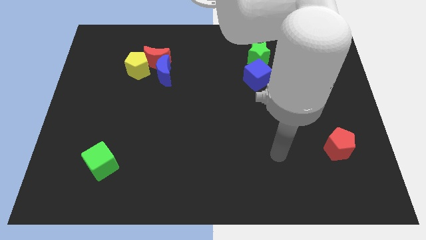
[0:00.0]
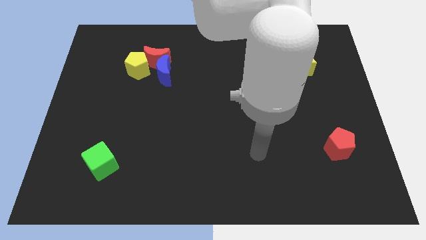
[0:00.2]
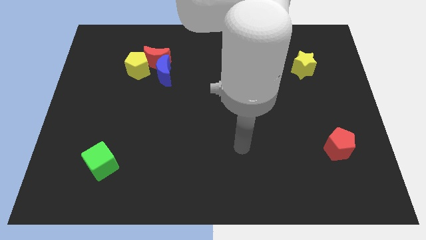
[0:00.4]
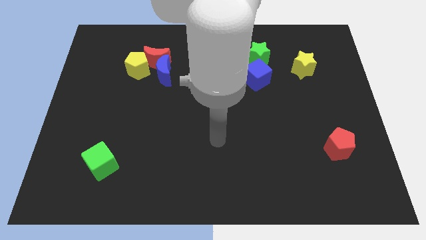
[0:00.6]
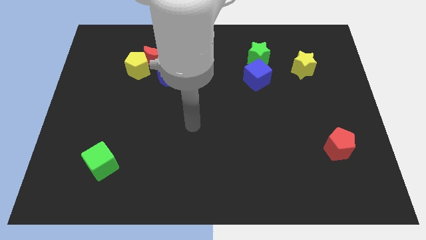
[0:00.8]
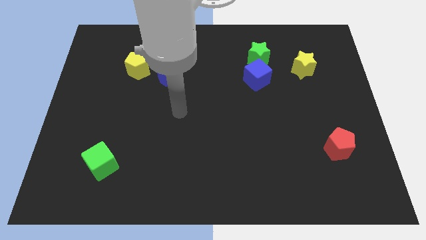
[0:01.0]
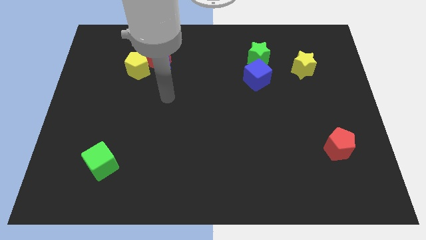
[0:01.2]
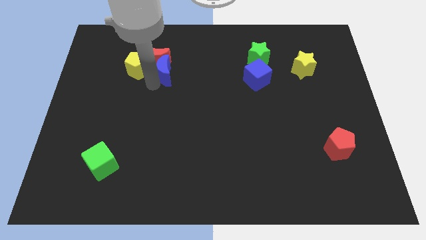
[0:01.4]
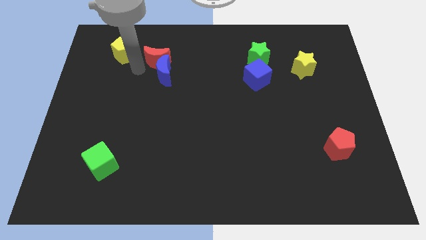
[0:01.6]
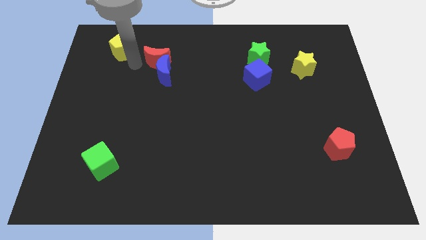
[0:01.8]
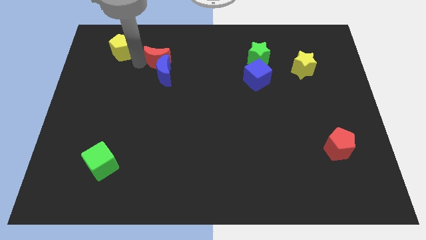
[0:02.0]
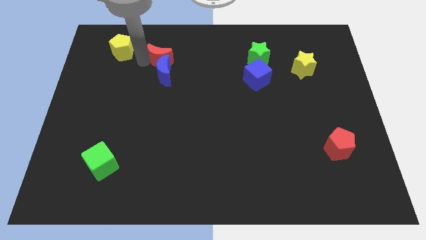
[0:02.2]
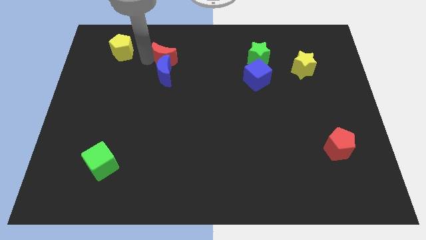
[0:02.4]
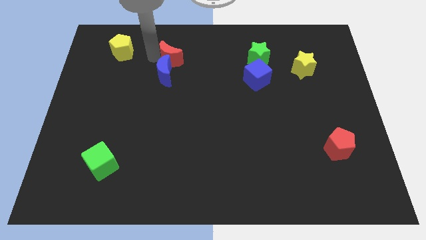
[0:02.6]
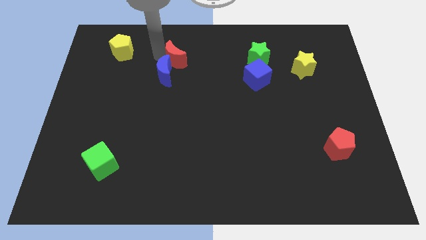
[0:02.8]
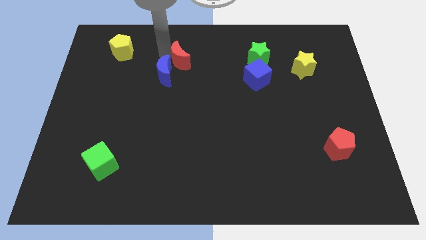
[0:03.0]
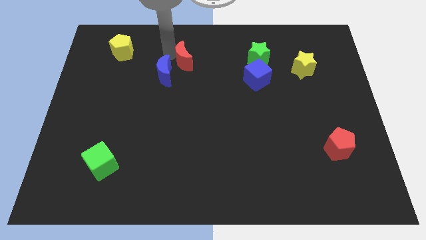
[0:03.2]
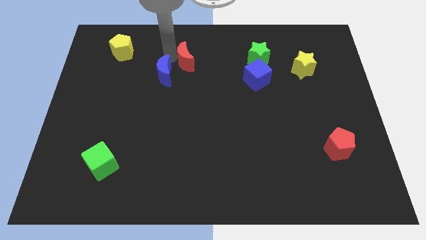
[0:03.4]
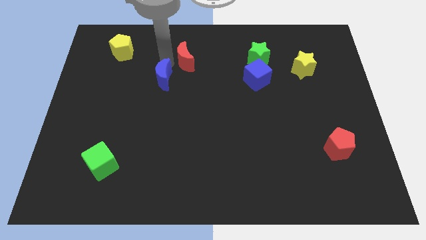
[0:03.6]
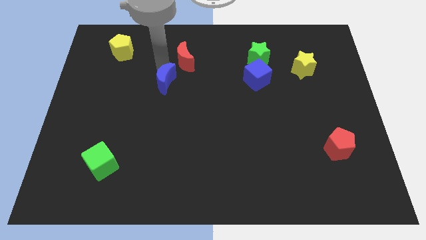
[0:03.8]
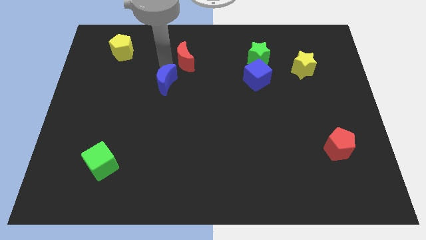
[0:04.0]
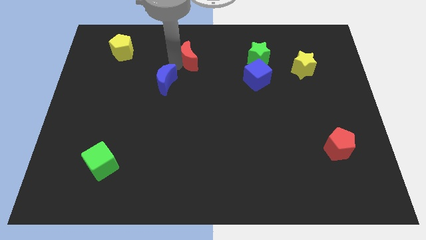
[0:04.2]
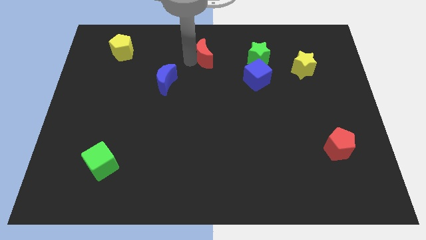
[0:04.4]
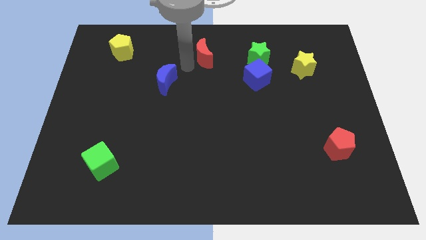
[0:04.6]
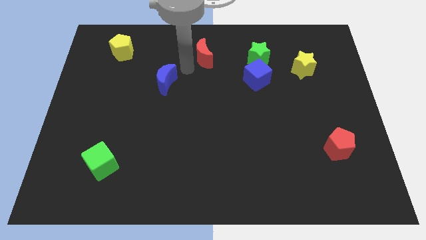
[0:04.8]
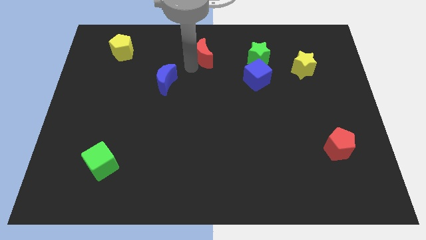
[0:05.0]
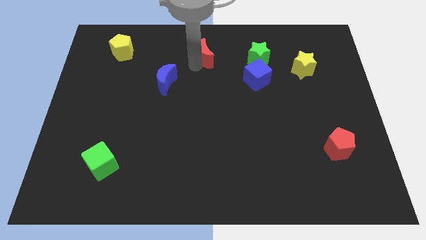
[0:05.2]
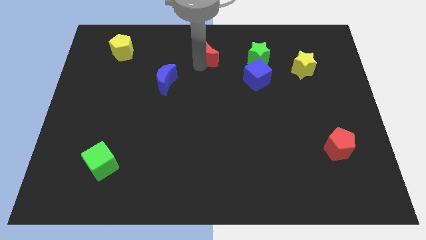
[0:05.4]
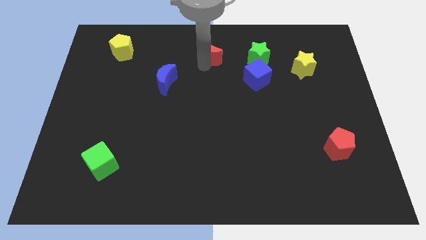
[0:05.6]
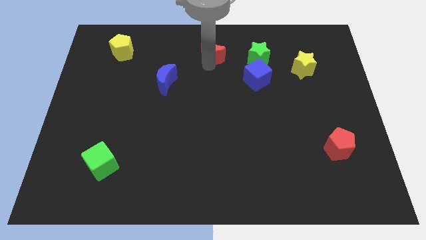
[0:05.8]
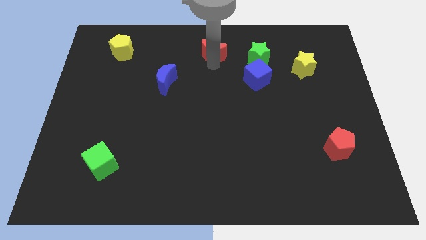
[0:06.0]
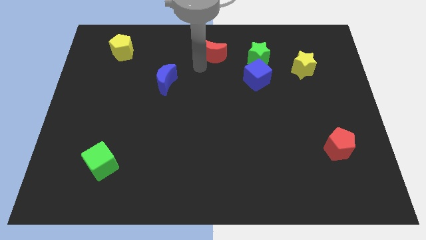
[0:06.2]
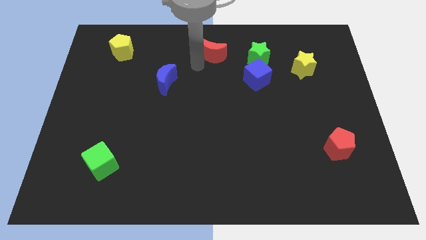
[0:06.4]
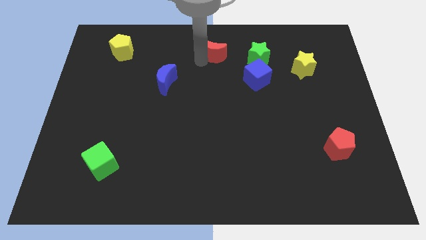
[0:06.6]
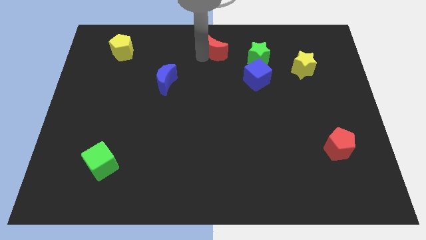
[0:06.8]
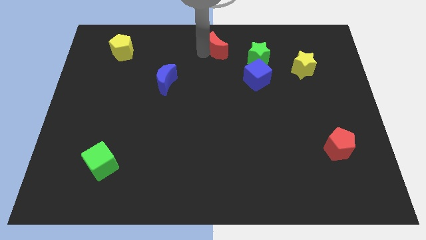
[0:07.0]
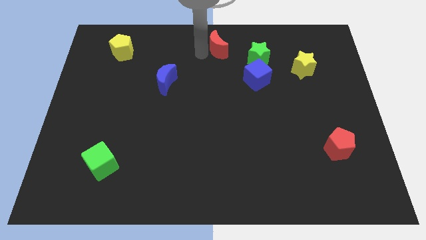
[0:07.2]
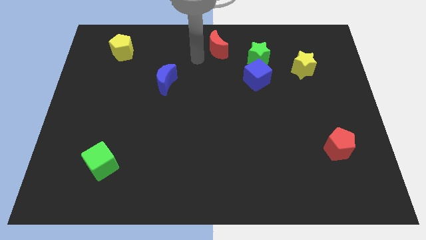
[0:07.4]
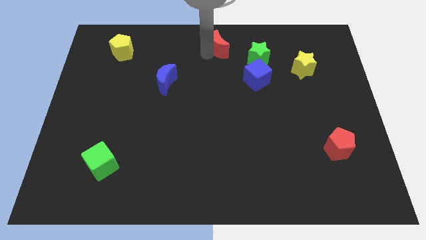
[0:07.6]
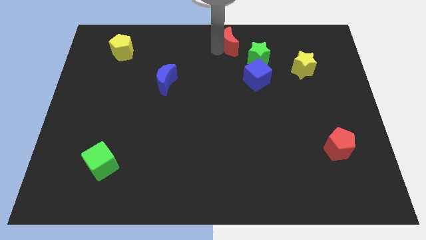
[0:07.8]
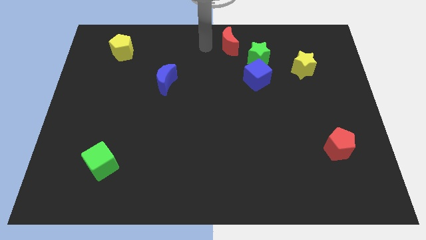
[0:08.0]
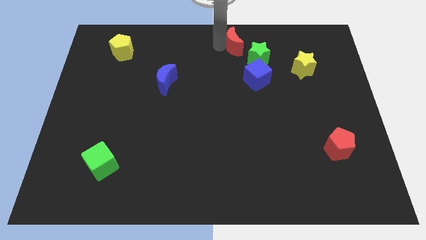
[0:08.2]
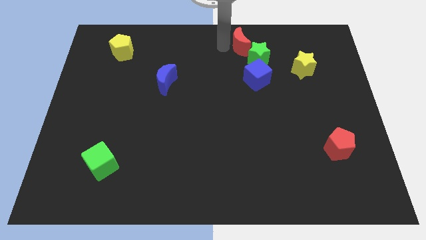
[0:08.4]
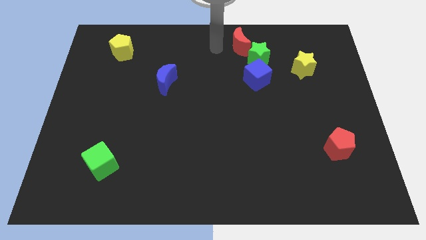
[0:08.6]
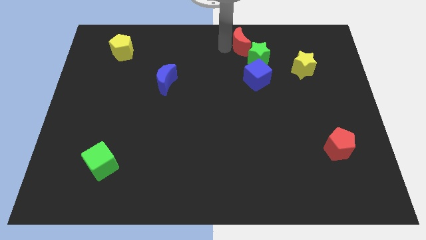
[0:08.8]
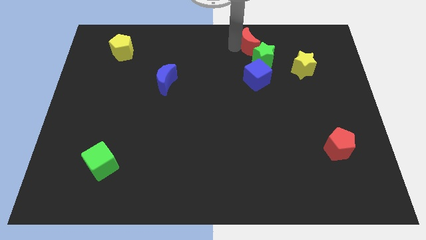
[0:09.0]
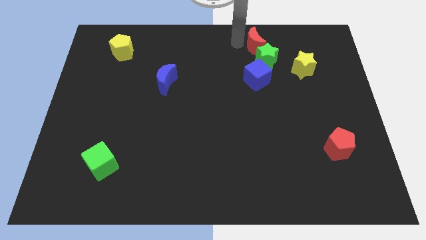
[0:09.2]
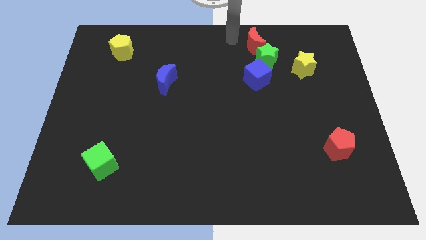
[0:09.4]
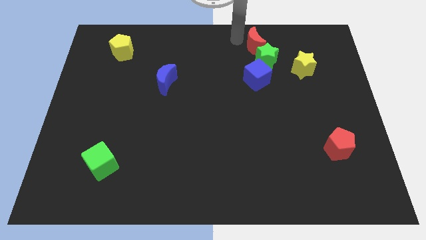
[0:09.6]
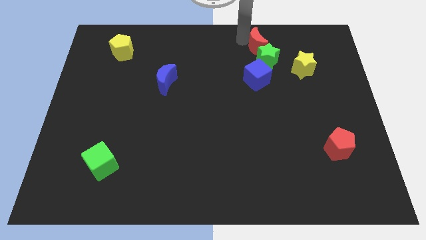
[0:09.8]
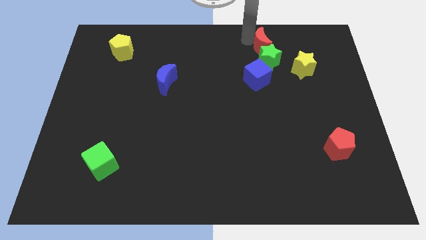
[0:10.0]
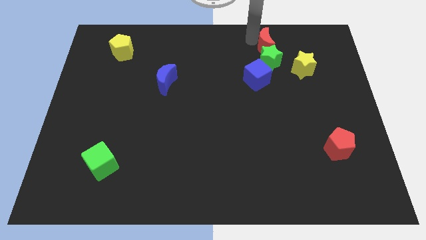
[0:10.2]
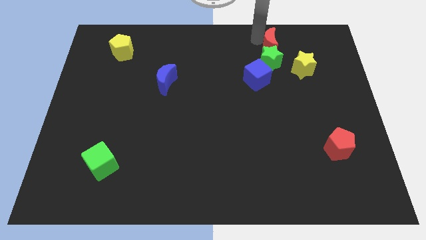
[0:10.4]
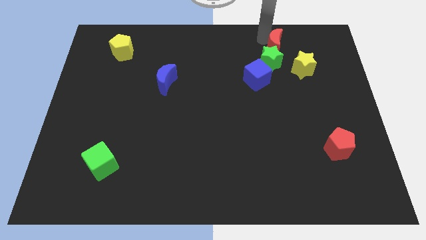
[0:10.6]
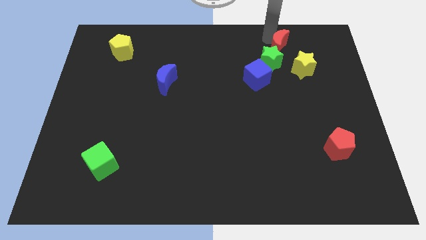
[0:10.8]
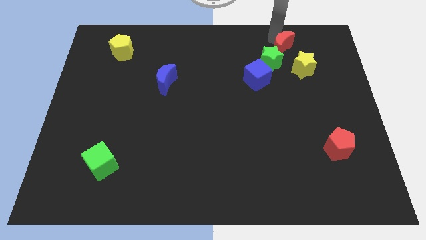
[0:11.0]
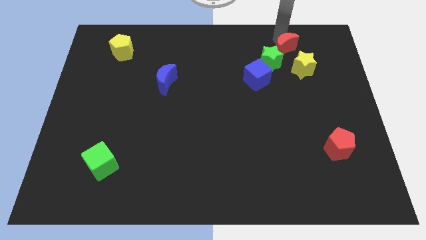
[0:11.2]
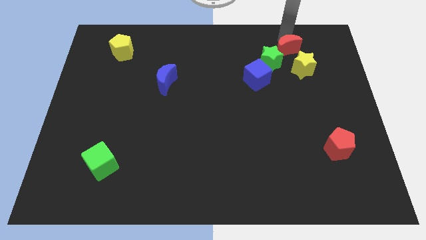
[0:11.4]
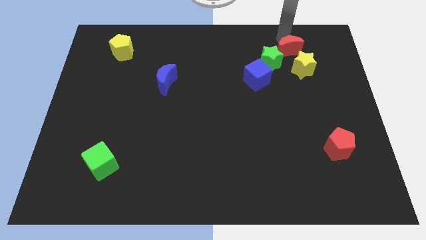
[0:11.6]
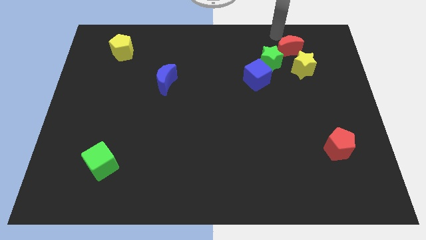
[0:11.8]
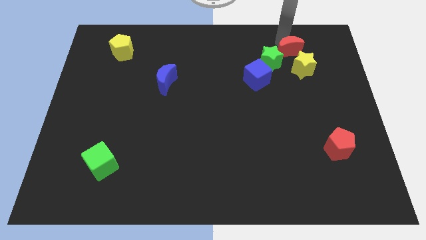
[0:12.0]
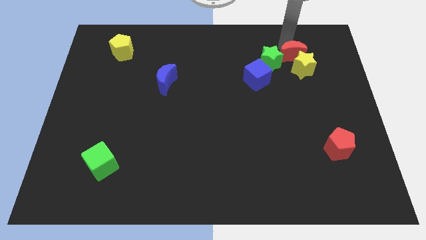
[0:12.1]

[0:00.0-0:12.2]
put the red moon to the yellow star
